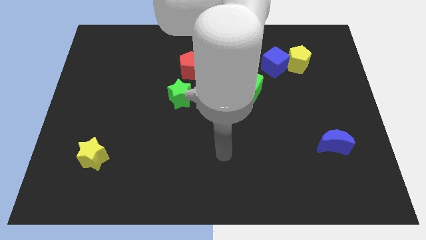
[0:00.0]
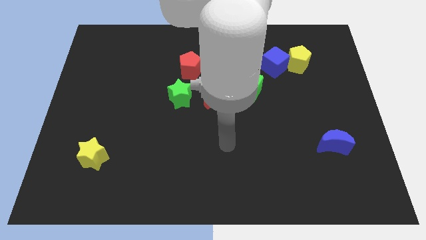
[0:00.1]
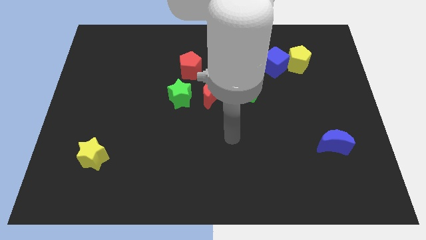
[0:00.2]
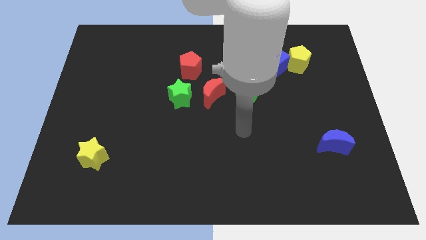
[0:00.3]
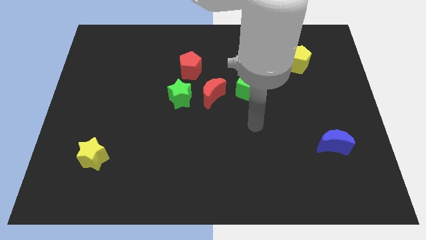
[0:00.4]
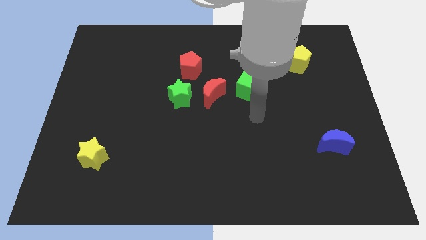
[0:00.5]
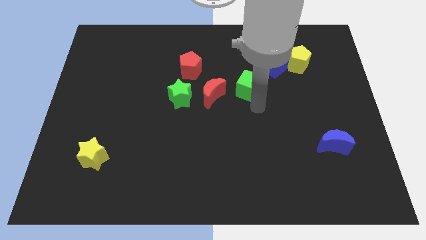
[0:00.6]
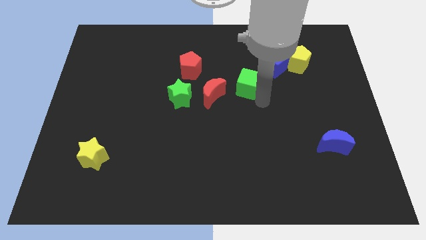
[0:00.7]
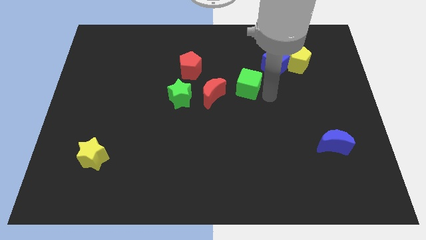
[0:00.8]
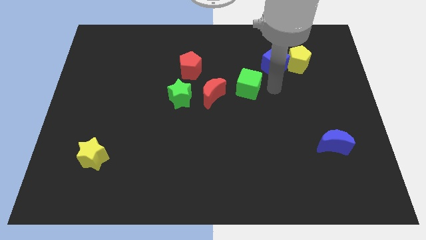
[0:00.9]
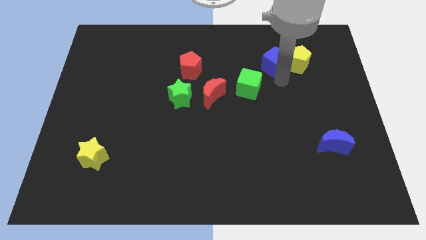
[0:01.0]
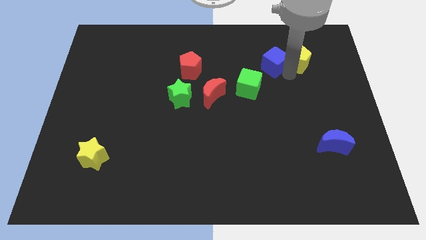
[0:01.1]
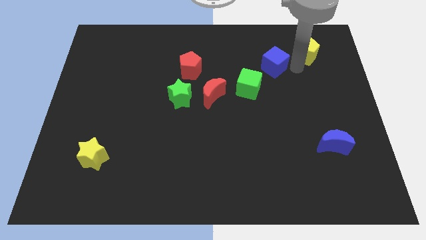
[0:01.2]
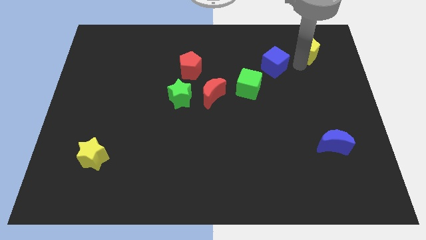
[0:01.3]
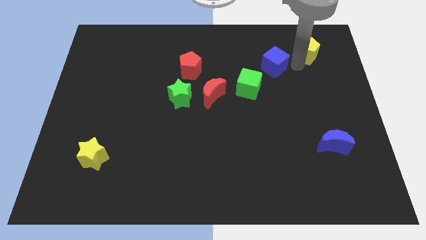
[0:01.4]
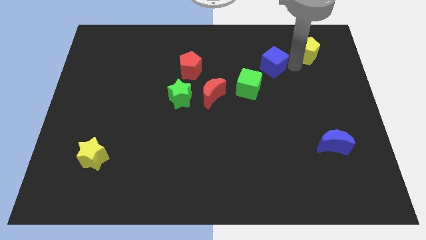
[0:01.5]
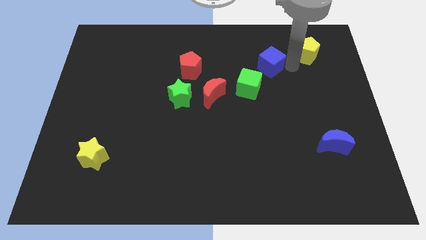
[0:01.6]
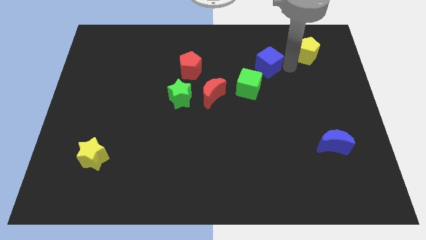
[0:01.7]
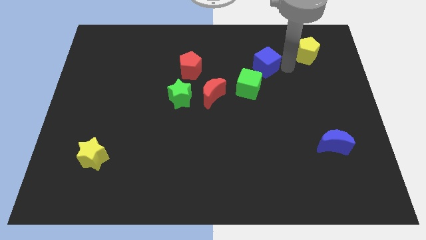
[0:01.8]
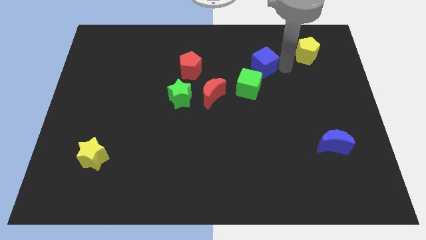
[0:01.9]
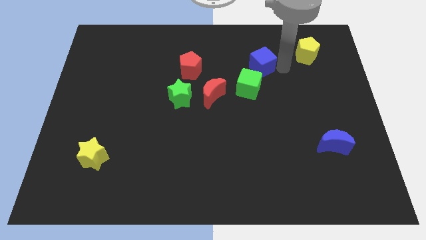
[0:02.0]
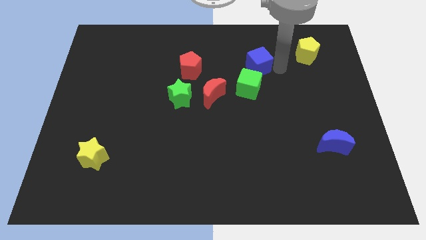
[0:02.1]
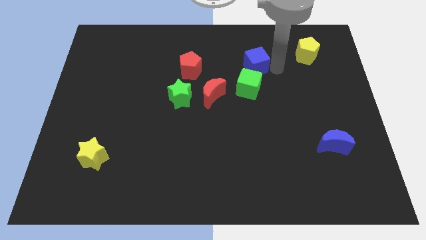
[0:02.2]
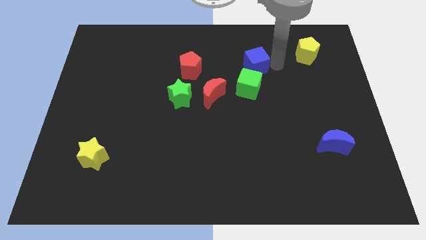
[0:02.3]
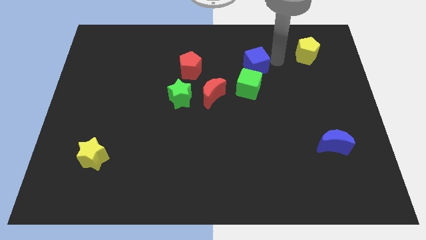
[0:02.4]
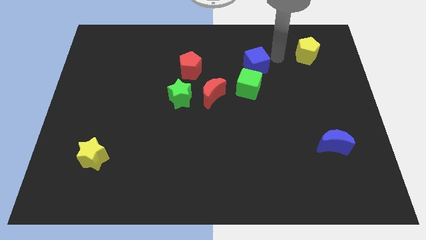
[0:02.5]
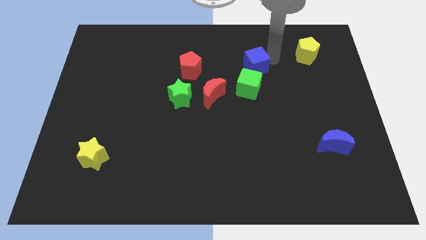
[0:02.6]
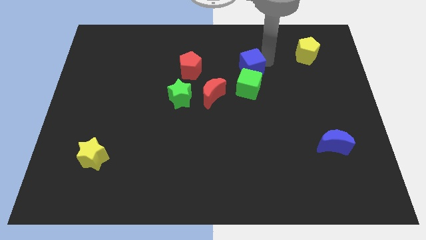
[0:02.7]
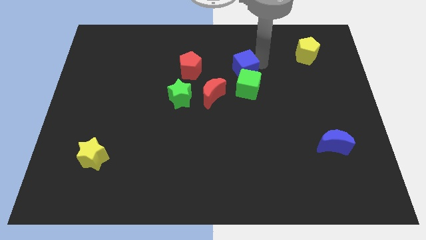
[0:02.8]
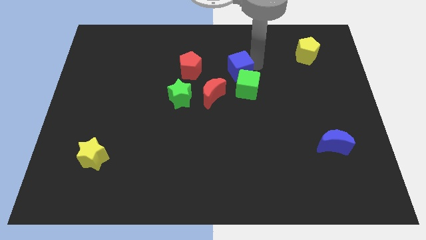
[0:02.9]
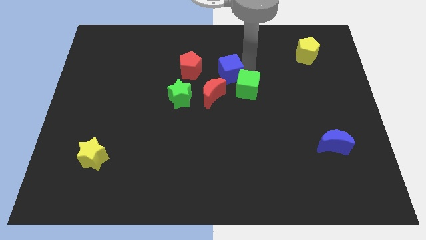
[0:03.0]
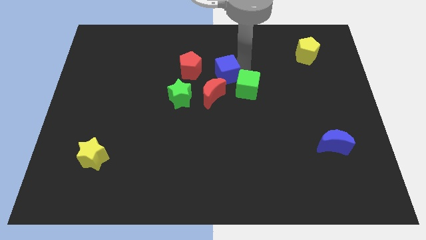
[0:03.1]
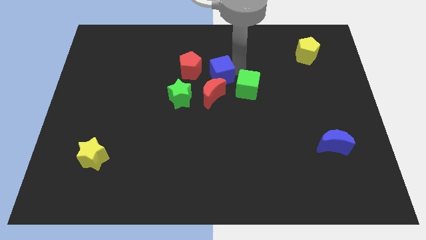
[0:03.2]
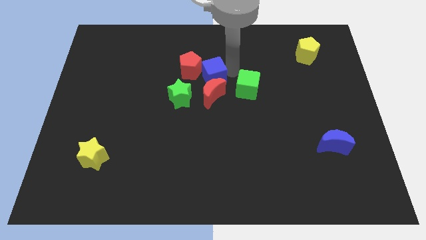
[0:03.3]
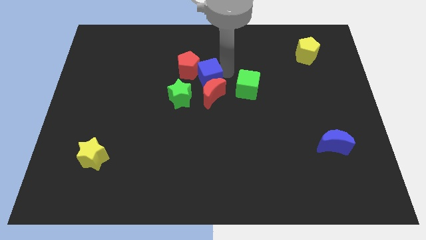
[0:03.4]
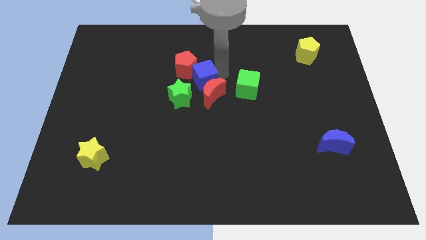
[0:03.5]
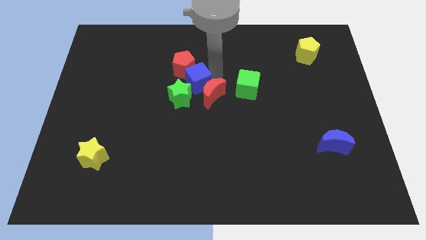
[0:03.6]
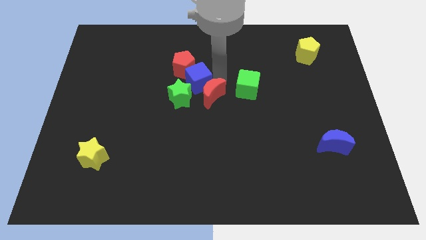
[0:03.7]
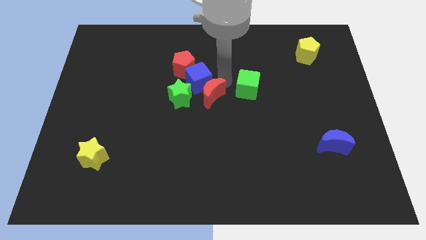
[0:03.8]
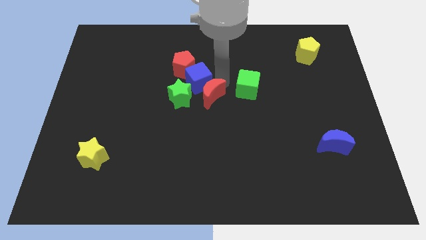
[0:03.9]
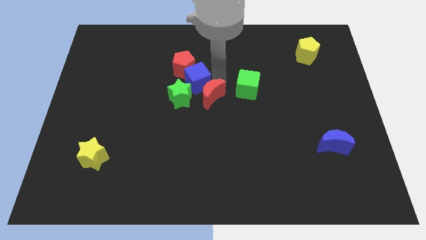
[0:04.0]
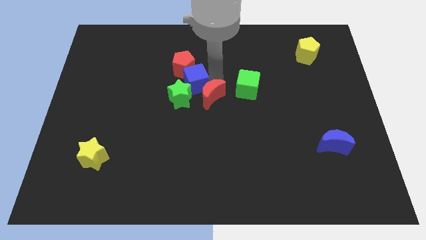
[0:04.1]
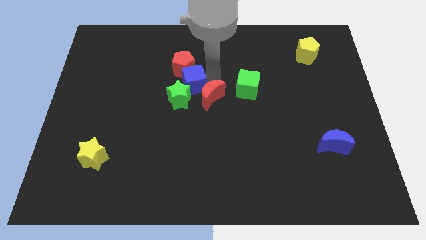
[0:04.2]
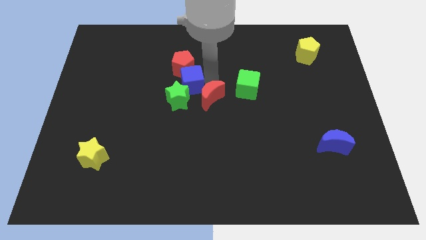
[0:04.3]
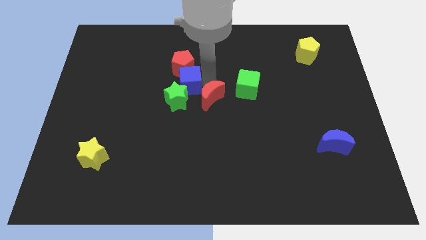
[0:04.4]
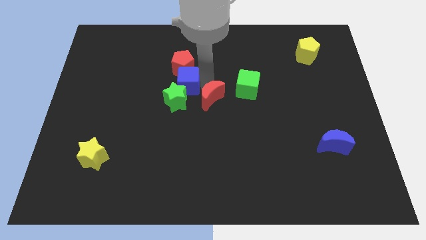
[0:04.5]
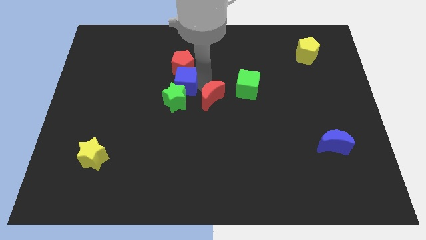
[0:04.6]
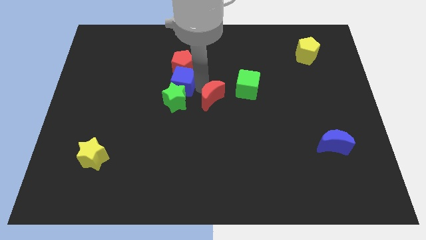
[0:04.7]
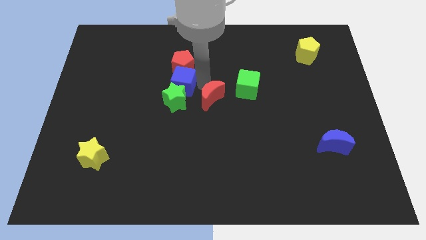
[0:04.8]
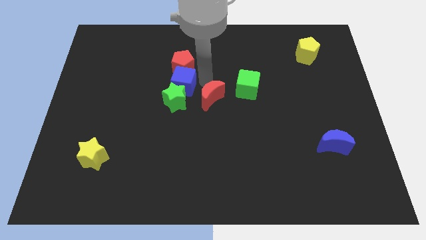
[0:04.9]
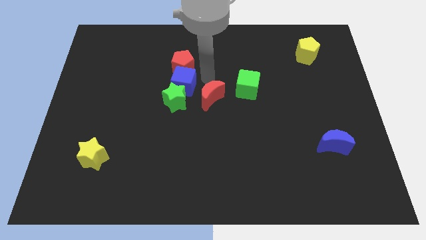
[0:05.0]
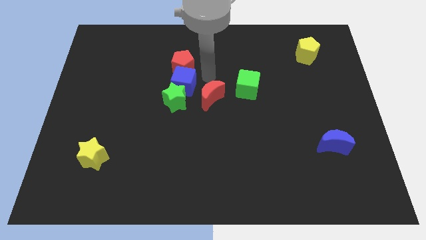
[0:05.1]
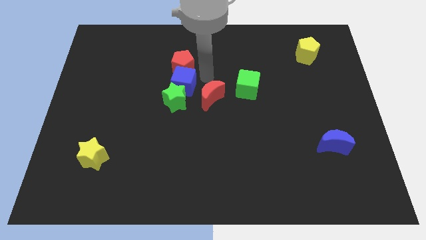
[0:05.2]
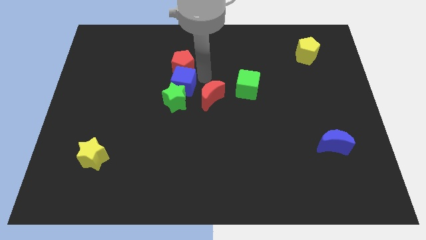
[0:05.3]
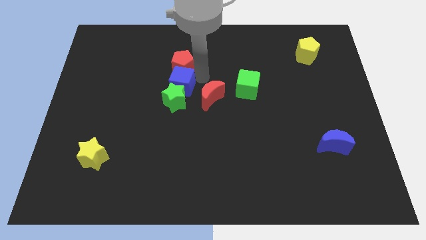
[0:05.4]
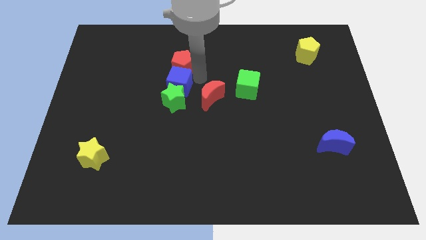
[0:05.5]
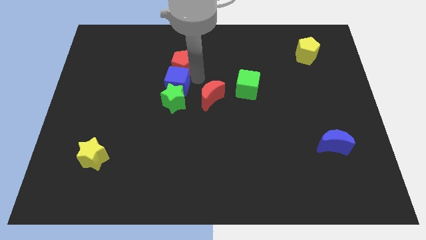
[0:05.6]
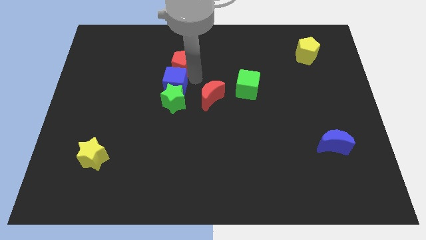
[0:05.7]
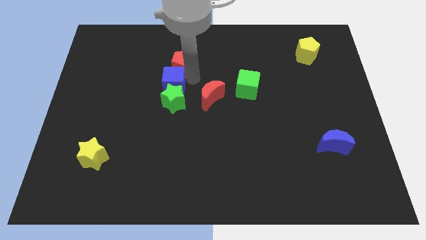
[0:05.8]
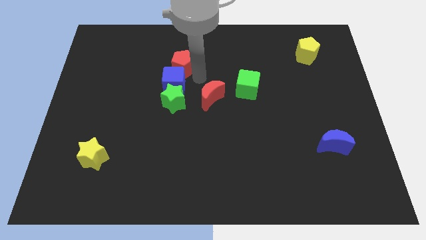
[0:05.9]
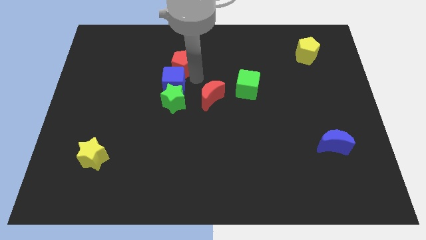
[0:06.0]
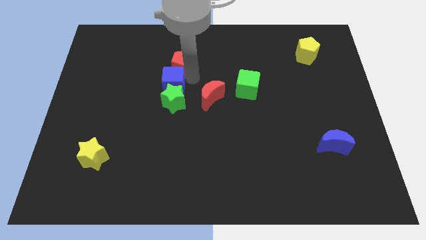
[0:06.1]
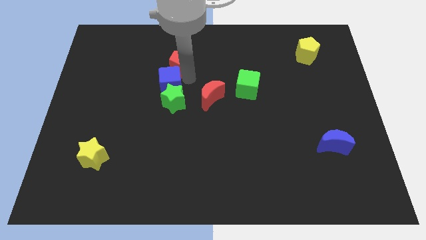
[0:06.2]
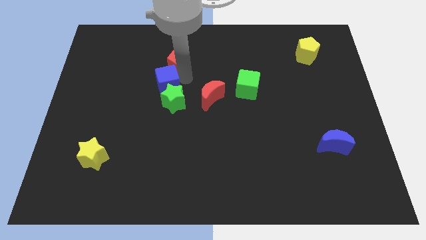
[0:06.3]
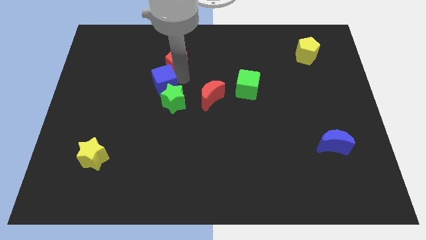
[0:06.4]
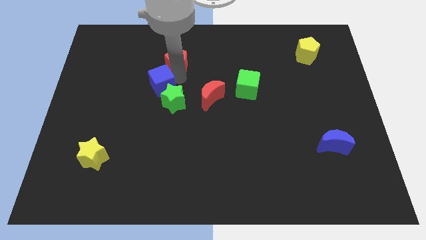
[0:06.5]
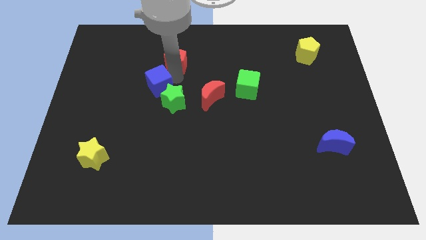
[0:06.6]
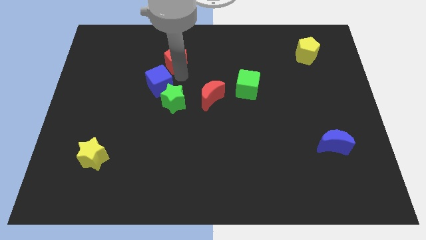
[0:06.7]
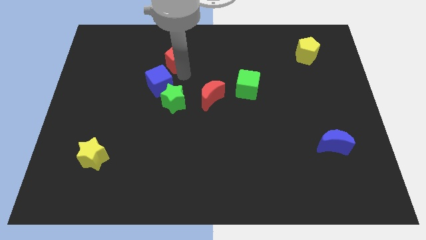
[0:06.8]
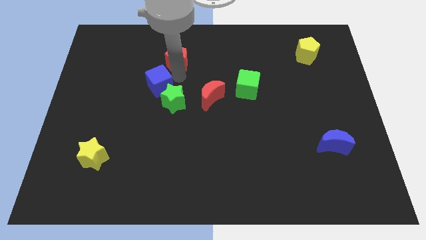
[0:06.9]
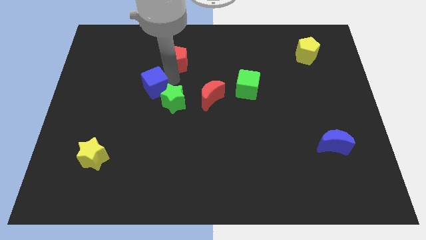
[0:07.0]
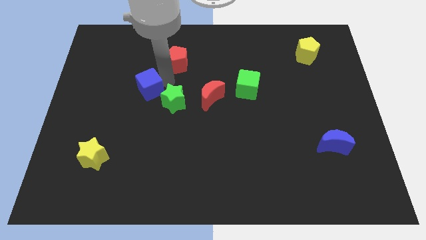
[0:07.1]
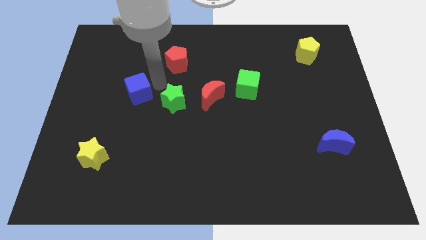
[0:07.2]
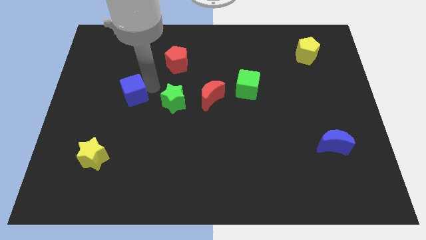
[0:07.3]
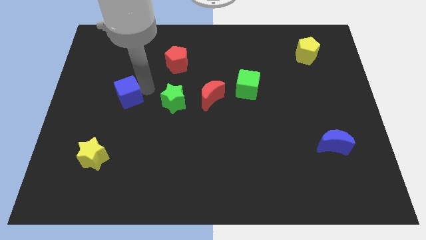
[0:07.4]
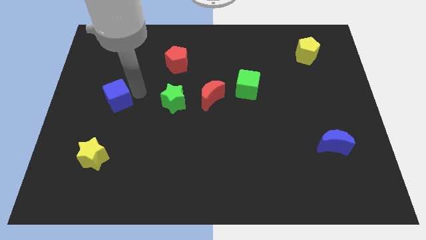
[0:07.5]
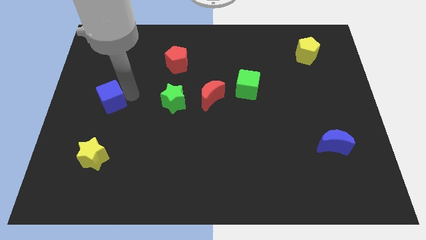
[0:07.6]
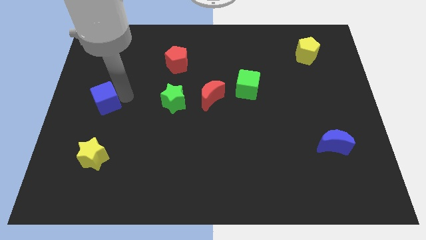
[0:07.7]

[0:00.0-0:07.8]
put the blue cube to the center left
